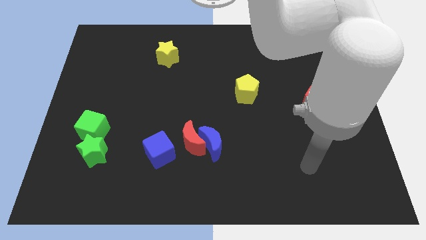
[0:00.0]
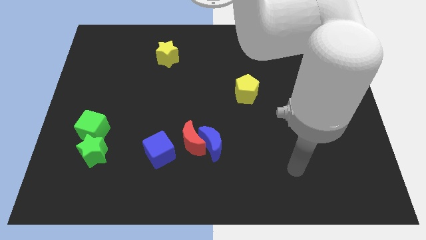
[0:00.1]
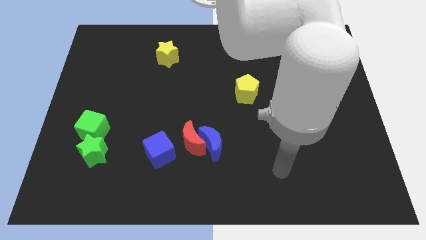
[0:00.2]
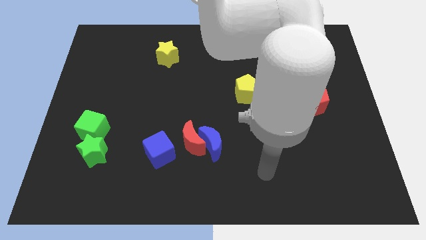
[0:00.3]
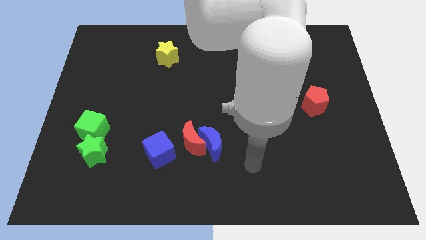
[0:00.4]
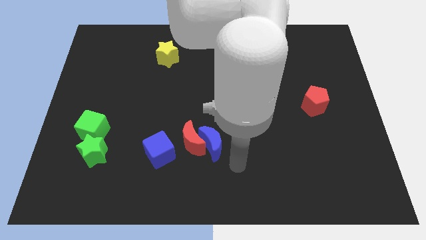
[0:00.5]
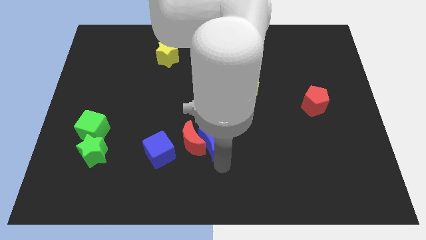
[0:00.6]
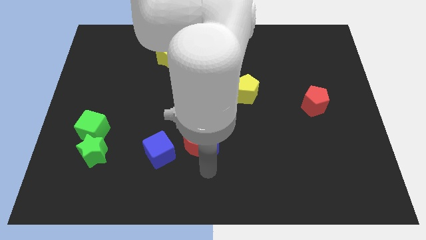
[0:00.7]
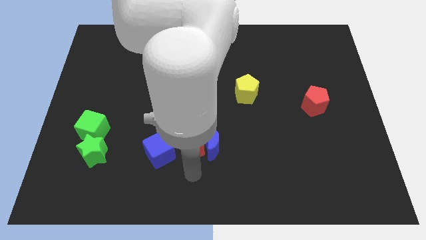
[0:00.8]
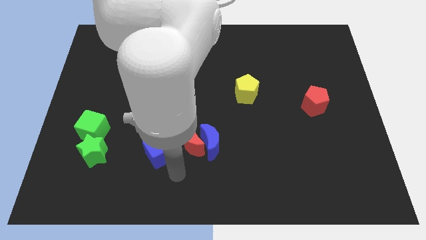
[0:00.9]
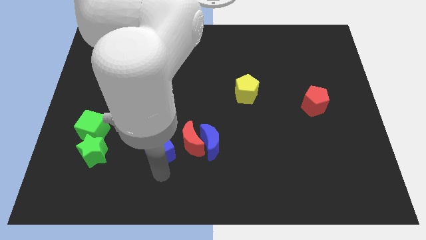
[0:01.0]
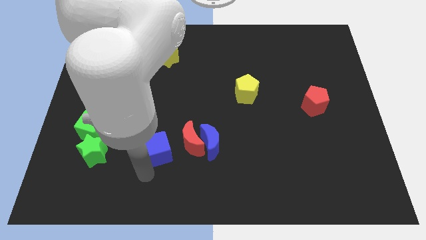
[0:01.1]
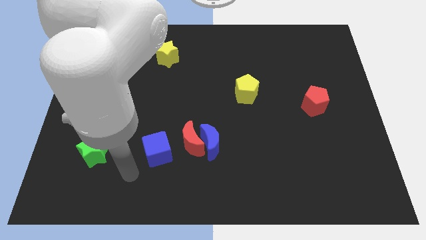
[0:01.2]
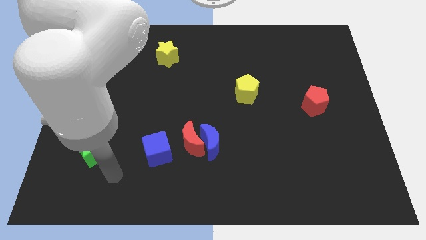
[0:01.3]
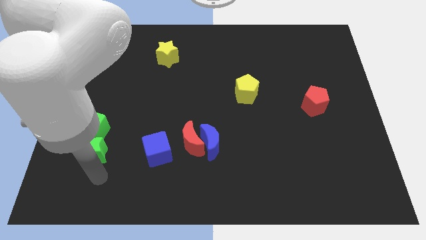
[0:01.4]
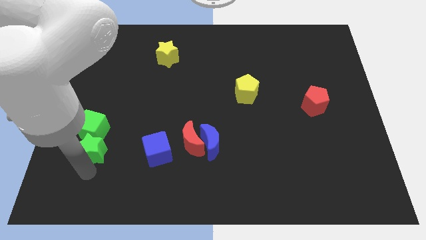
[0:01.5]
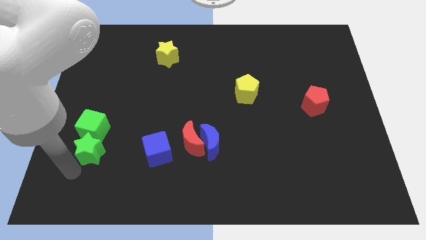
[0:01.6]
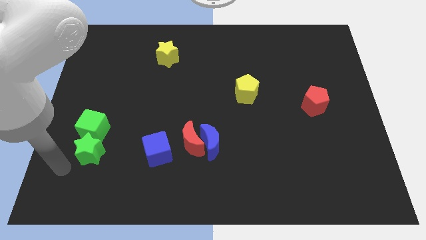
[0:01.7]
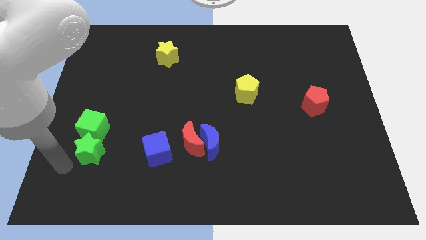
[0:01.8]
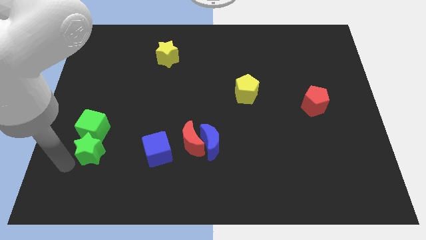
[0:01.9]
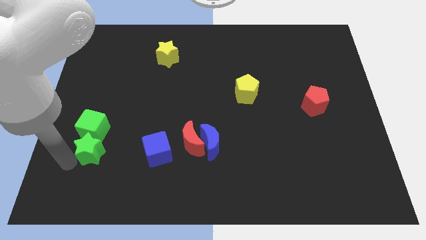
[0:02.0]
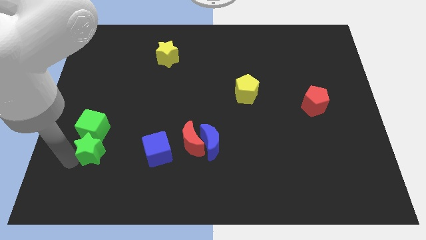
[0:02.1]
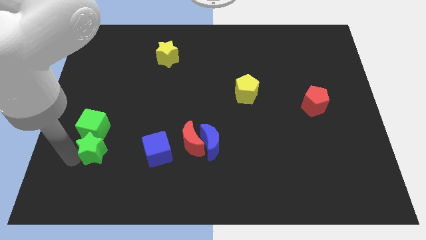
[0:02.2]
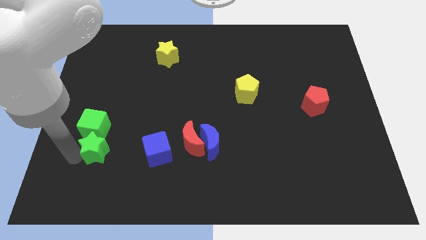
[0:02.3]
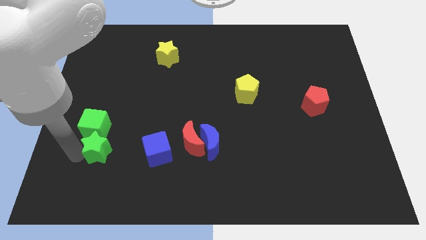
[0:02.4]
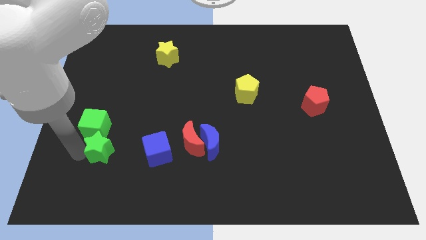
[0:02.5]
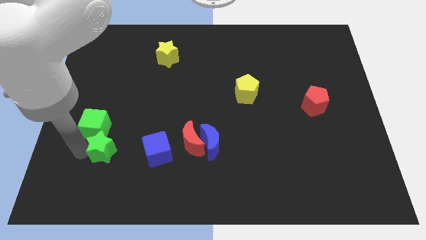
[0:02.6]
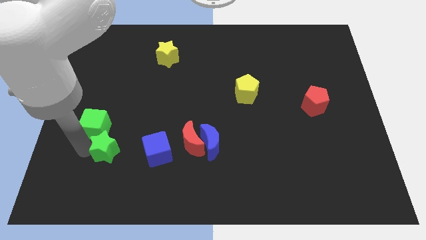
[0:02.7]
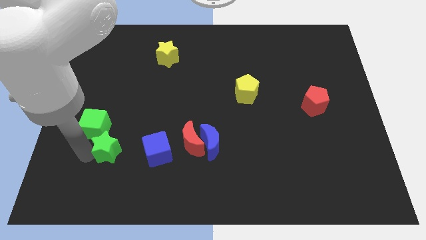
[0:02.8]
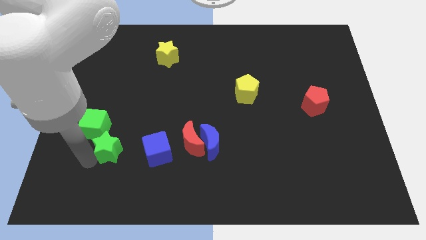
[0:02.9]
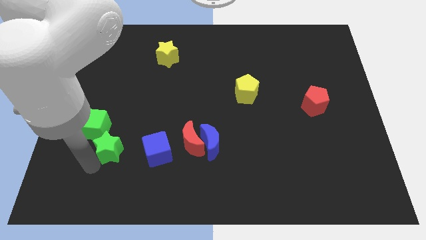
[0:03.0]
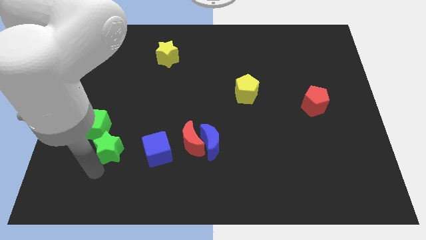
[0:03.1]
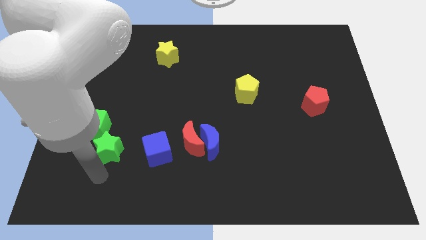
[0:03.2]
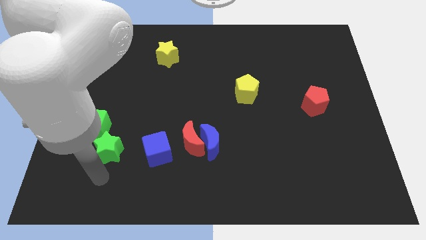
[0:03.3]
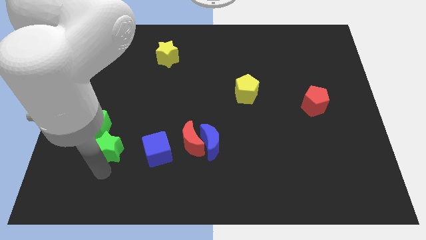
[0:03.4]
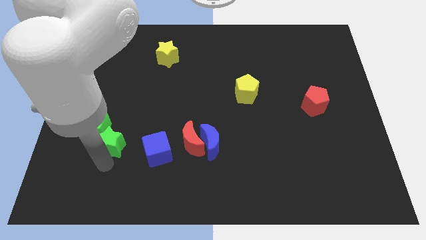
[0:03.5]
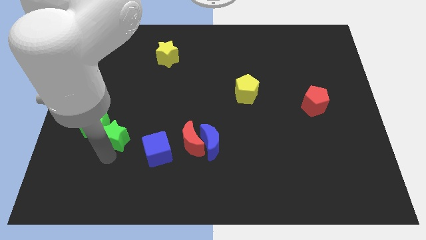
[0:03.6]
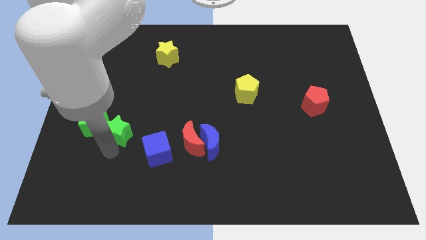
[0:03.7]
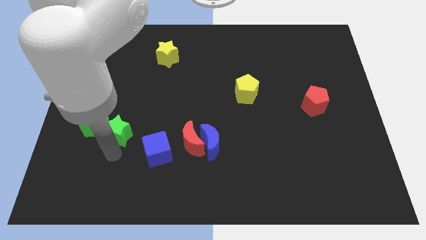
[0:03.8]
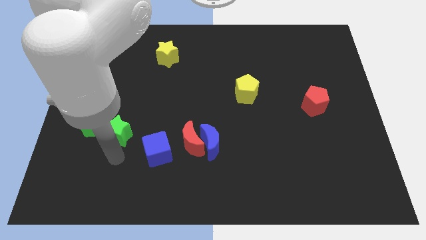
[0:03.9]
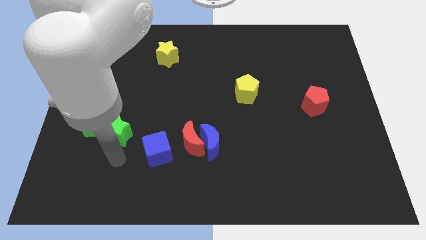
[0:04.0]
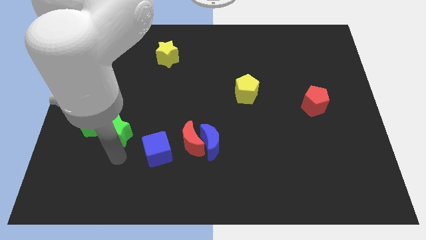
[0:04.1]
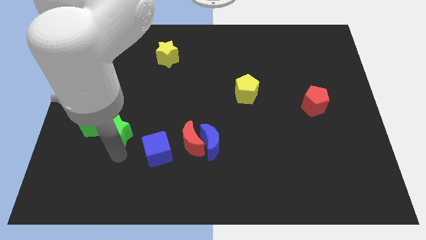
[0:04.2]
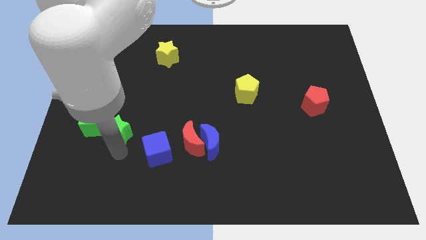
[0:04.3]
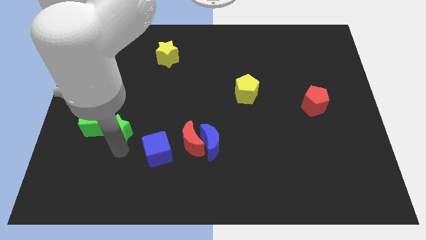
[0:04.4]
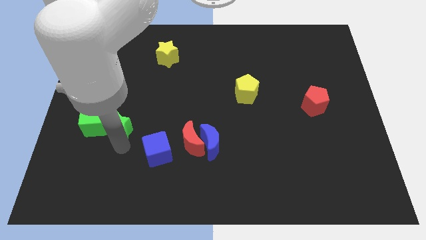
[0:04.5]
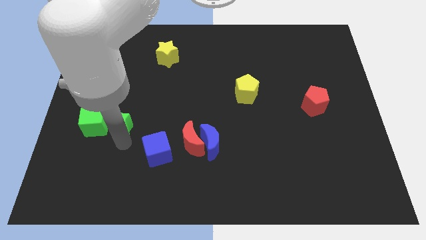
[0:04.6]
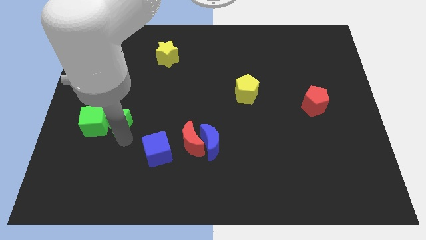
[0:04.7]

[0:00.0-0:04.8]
slightly move the green star upwards

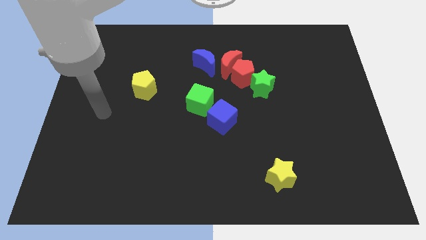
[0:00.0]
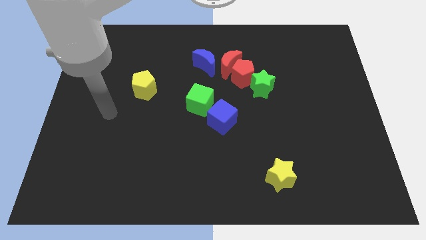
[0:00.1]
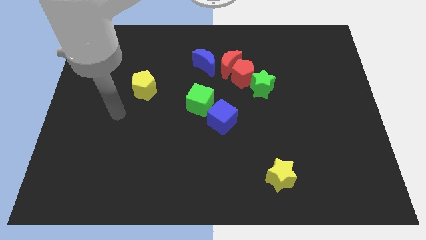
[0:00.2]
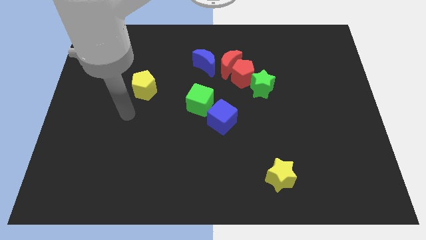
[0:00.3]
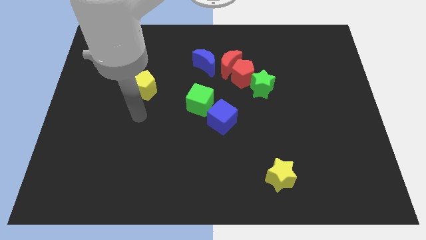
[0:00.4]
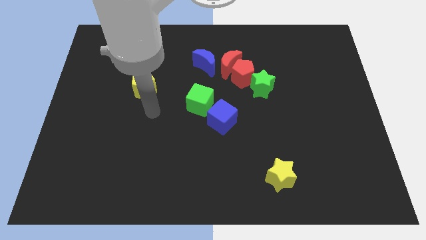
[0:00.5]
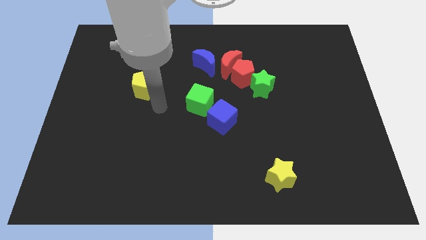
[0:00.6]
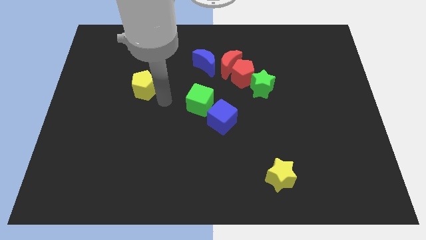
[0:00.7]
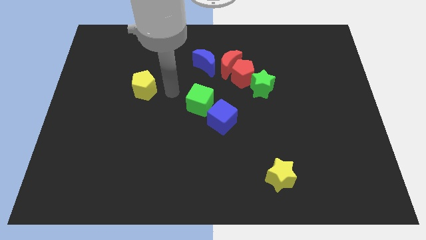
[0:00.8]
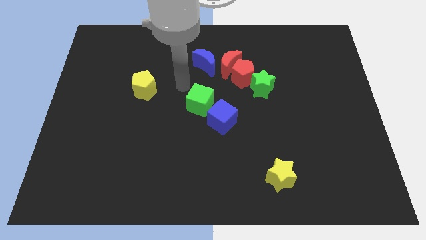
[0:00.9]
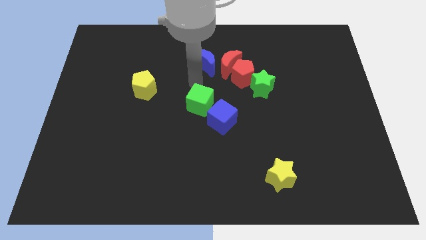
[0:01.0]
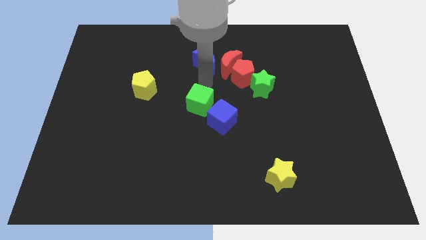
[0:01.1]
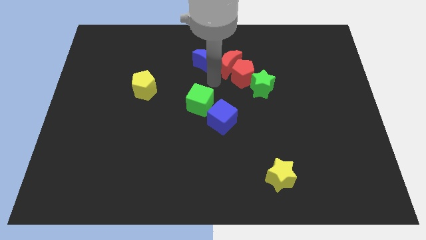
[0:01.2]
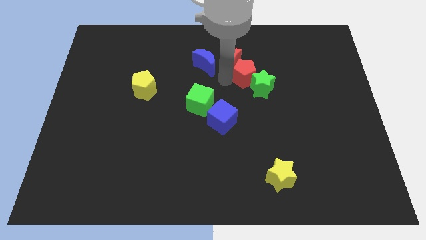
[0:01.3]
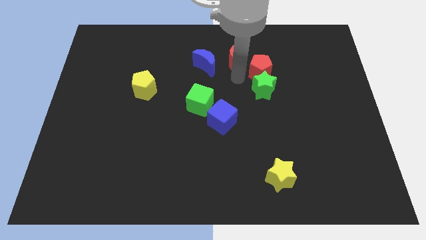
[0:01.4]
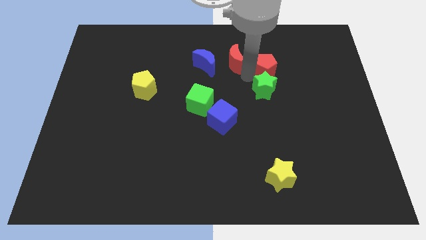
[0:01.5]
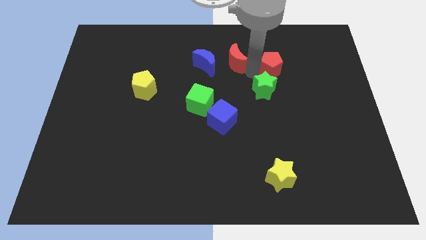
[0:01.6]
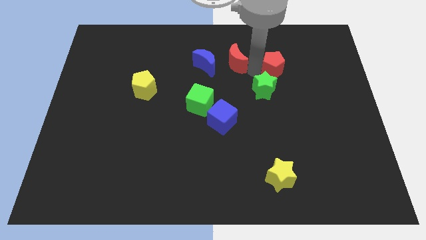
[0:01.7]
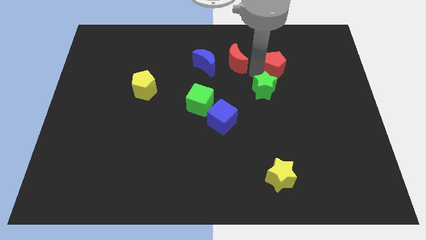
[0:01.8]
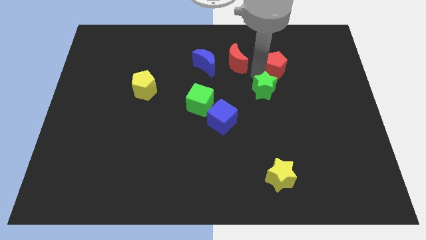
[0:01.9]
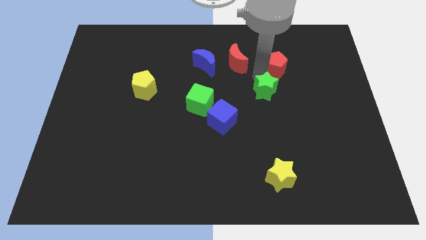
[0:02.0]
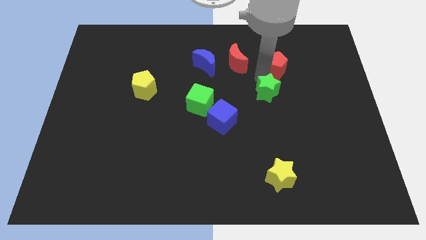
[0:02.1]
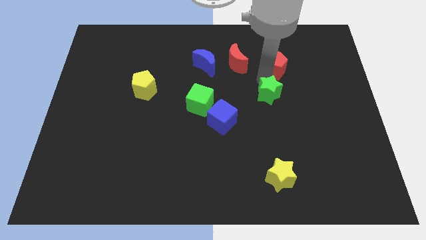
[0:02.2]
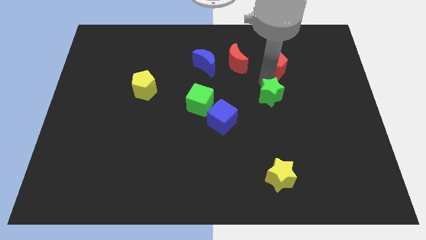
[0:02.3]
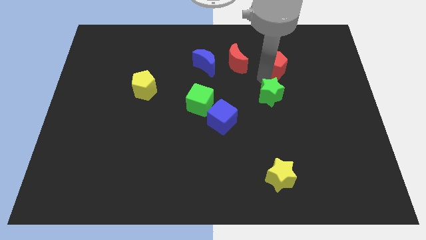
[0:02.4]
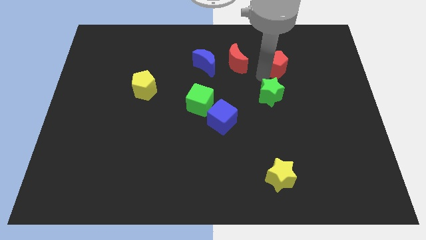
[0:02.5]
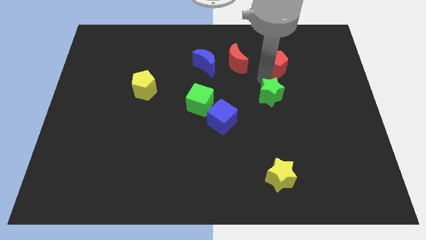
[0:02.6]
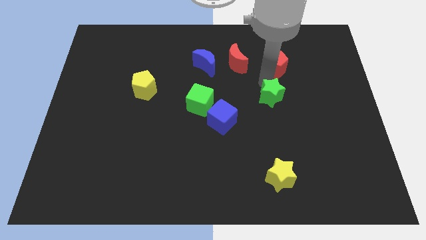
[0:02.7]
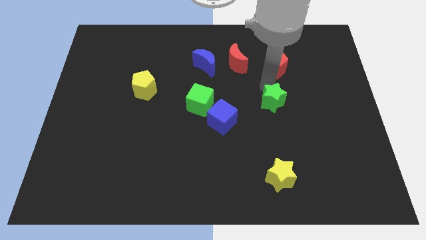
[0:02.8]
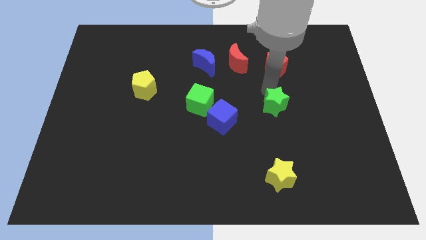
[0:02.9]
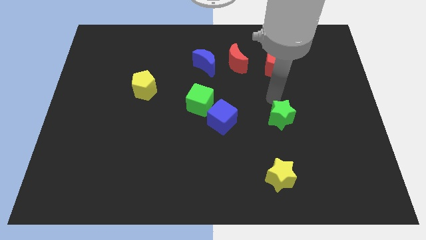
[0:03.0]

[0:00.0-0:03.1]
move the green star downwards somewhat
